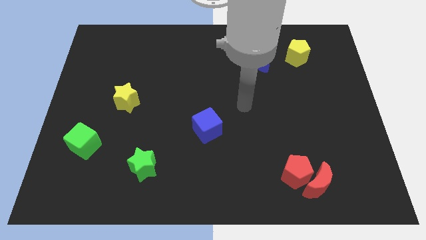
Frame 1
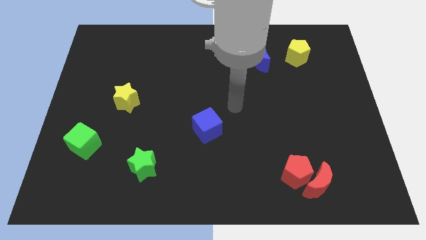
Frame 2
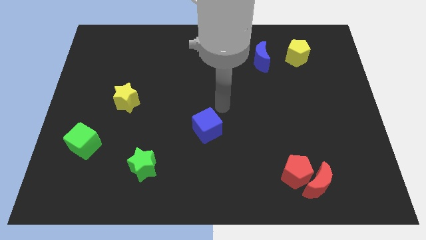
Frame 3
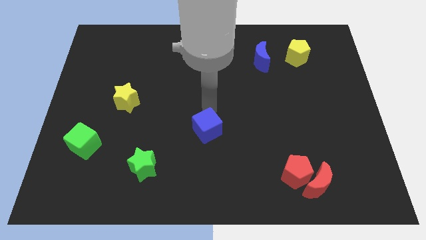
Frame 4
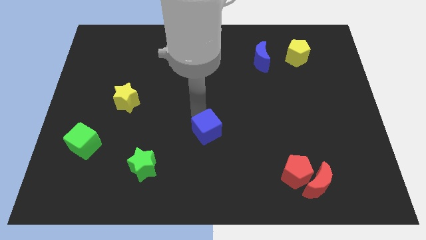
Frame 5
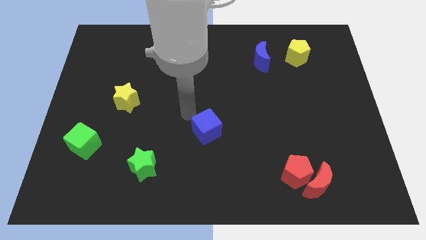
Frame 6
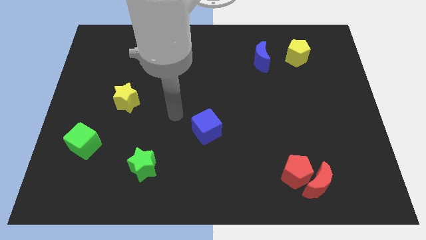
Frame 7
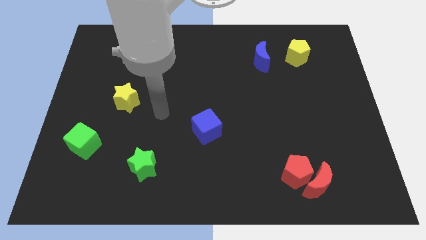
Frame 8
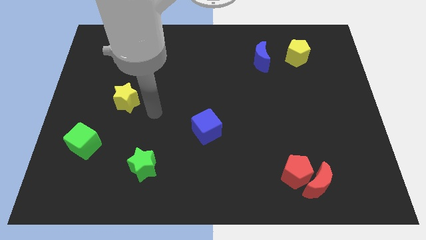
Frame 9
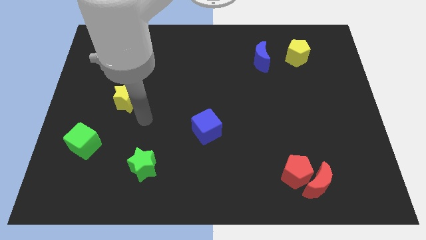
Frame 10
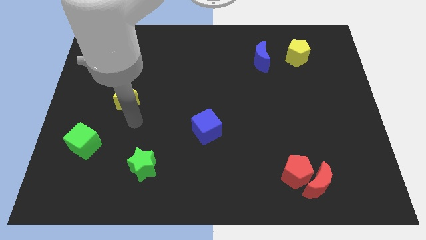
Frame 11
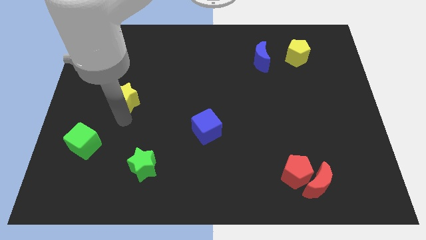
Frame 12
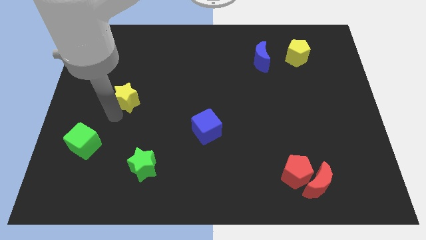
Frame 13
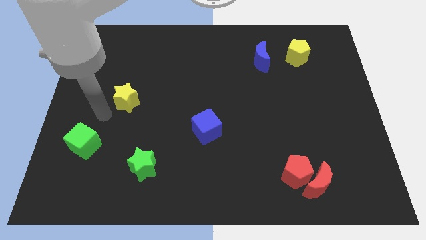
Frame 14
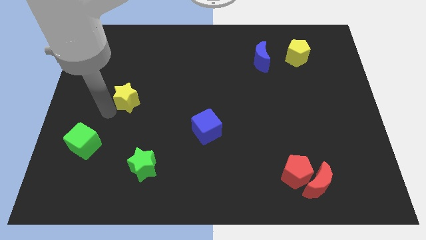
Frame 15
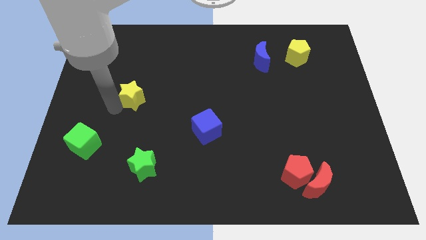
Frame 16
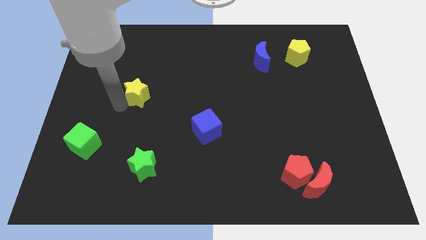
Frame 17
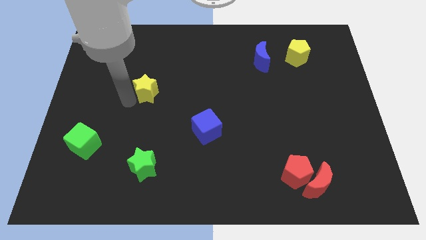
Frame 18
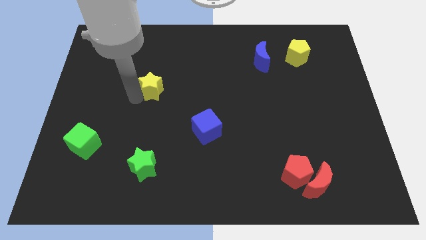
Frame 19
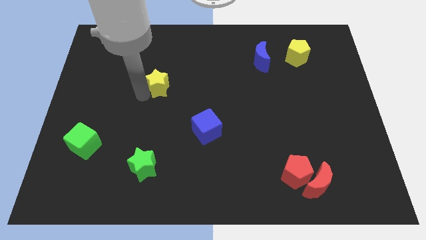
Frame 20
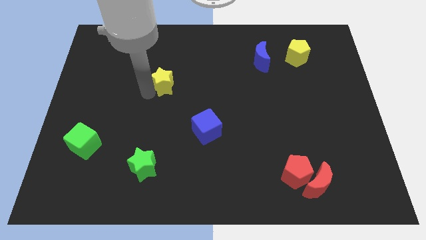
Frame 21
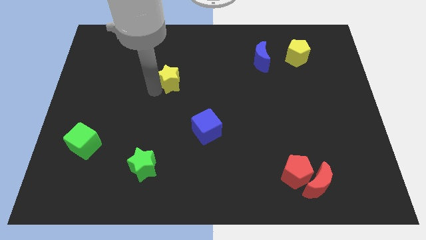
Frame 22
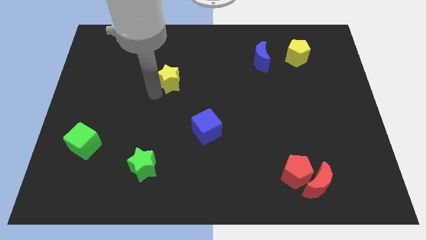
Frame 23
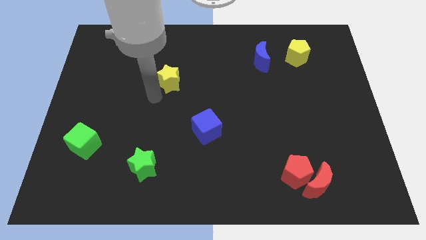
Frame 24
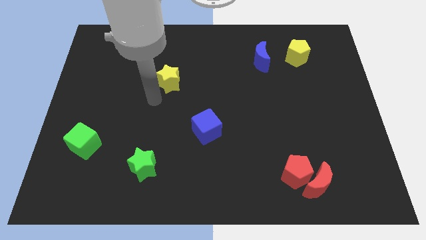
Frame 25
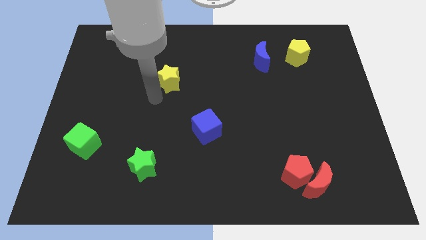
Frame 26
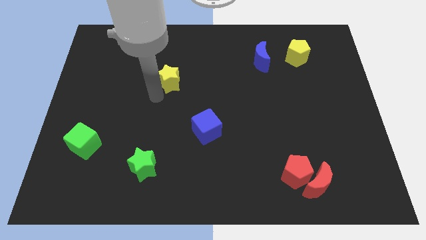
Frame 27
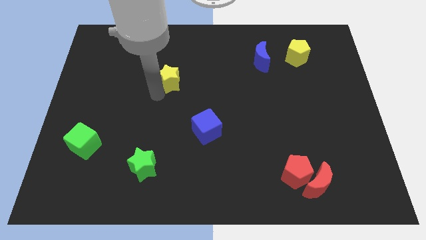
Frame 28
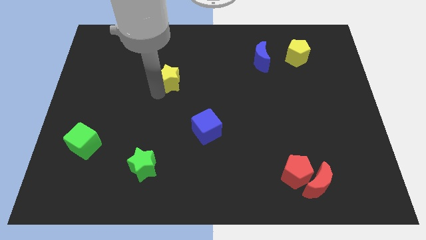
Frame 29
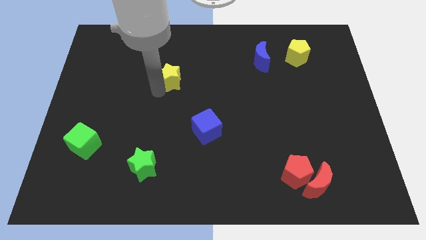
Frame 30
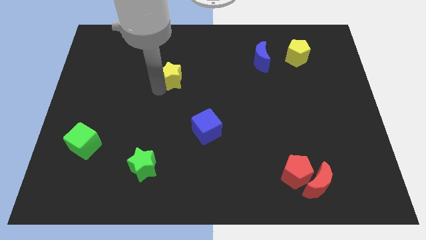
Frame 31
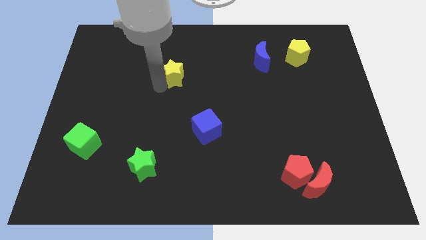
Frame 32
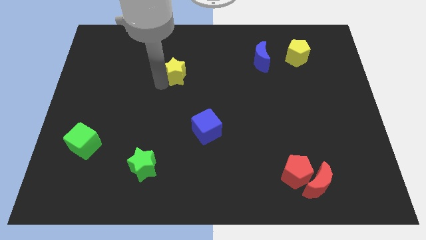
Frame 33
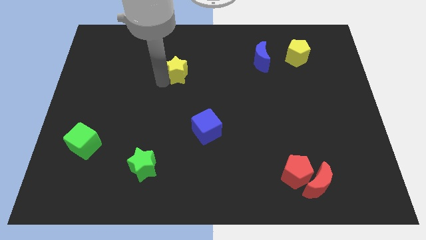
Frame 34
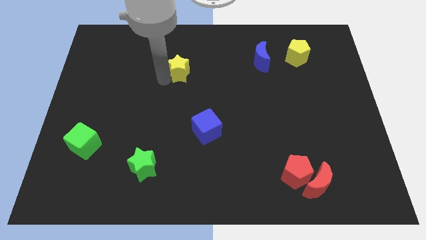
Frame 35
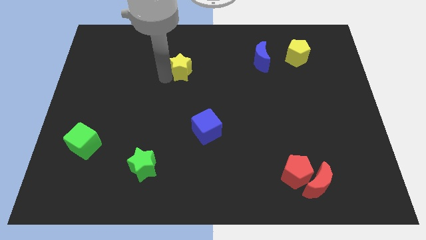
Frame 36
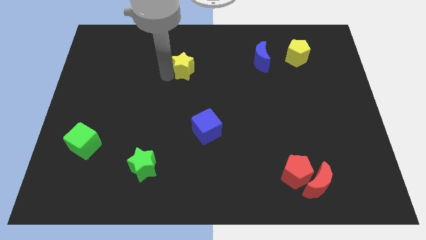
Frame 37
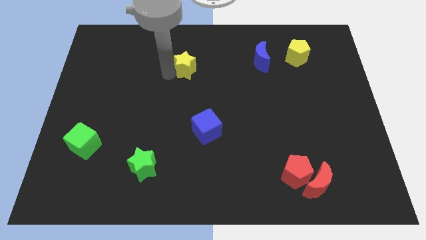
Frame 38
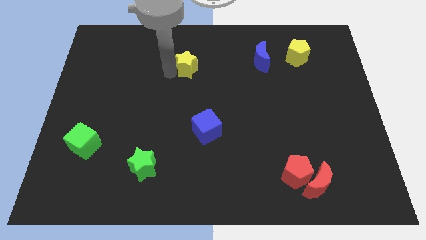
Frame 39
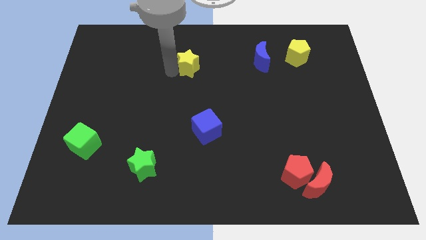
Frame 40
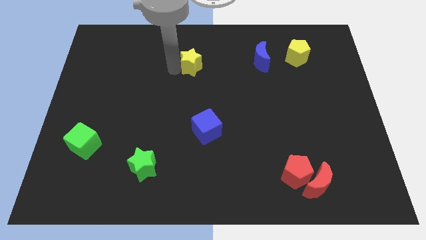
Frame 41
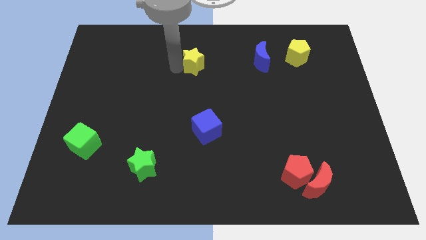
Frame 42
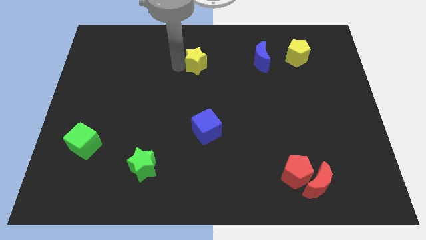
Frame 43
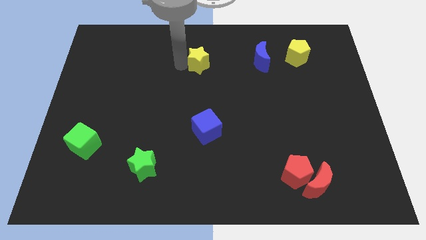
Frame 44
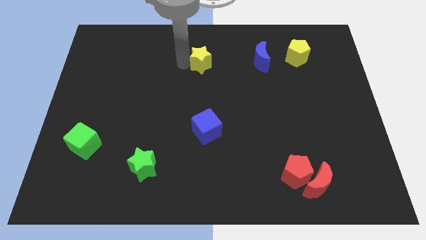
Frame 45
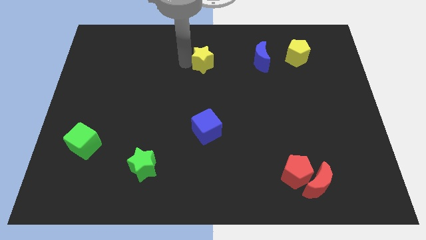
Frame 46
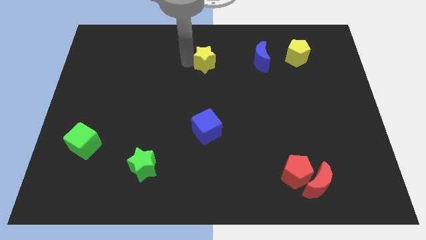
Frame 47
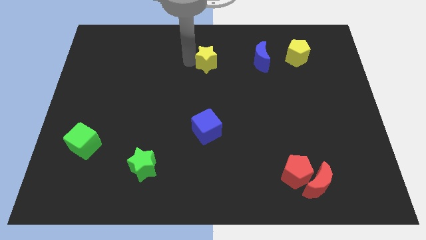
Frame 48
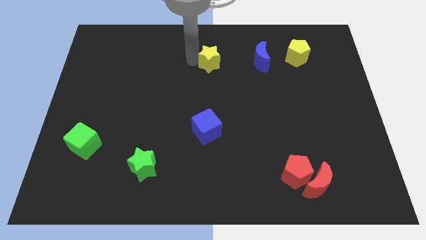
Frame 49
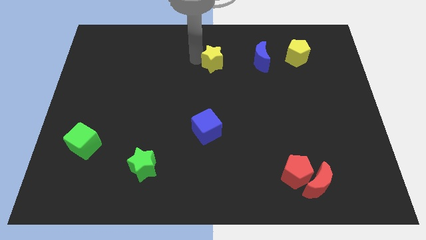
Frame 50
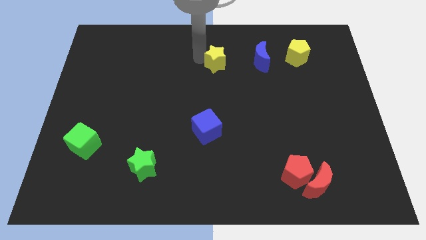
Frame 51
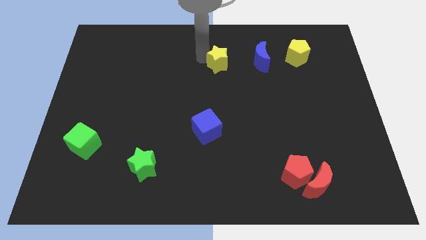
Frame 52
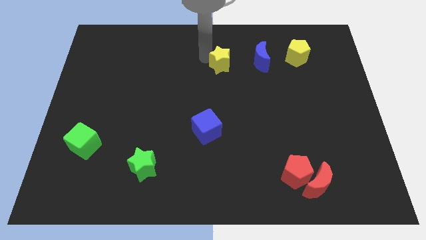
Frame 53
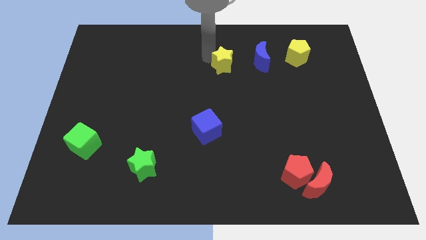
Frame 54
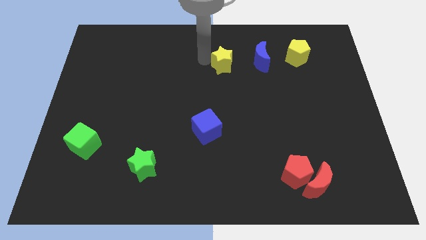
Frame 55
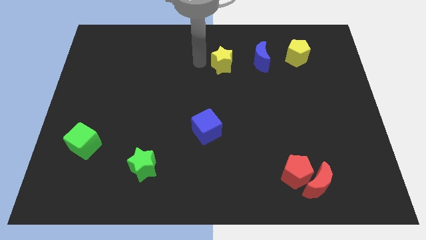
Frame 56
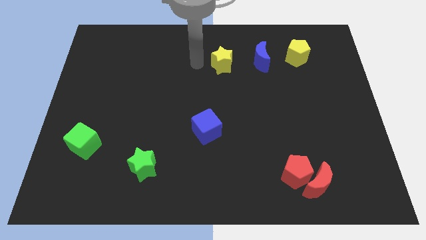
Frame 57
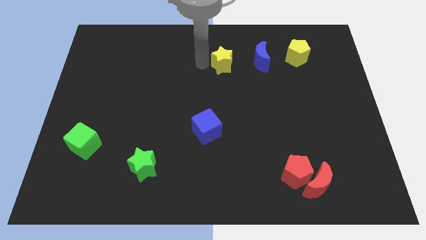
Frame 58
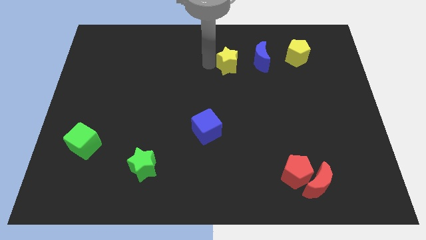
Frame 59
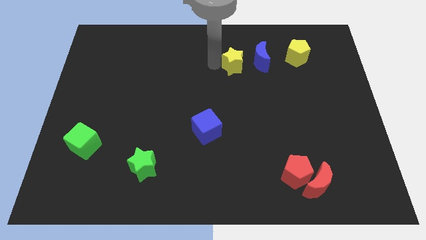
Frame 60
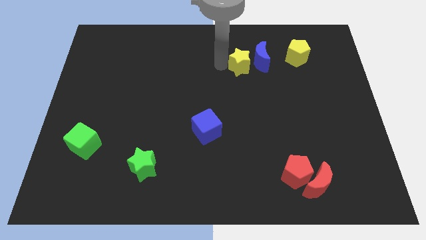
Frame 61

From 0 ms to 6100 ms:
put the yellow star next to the blue moon

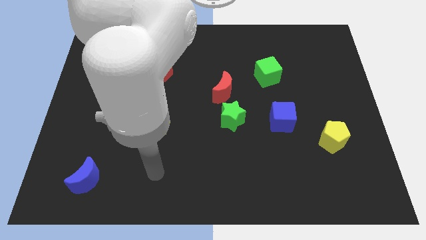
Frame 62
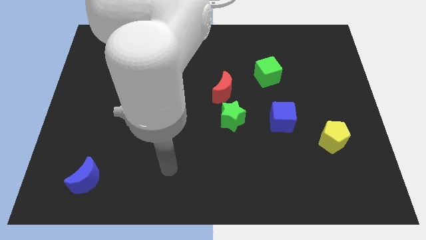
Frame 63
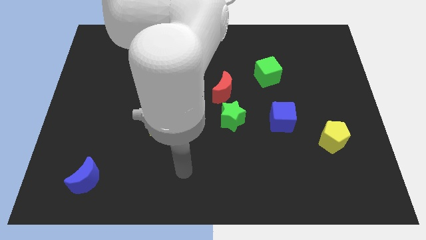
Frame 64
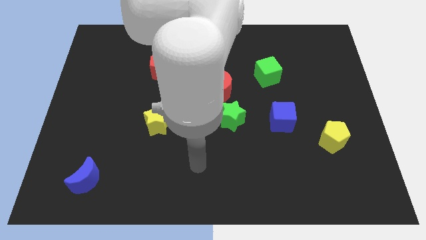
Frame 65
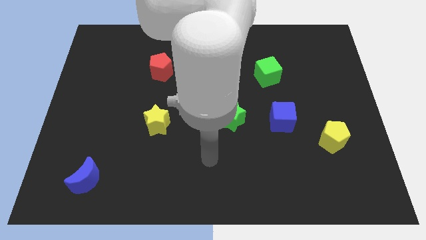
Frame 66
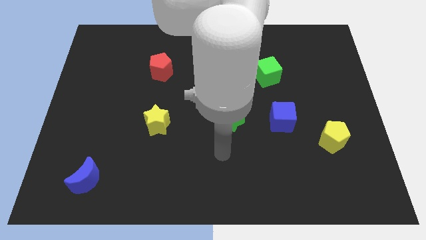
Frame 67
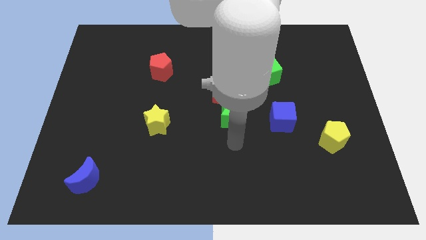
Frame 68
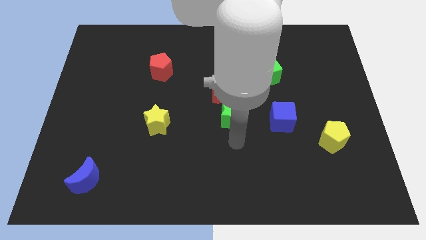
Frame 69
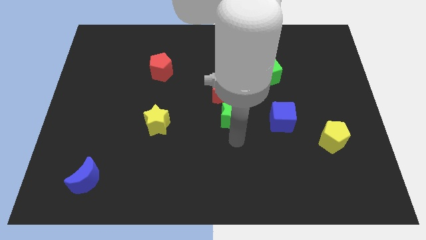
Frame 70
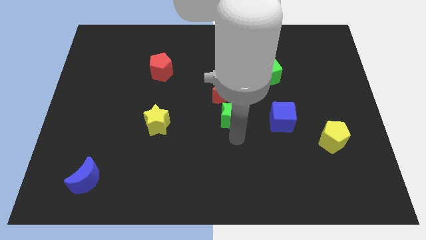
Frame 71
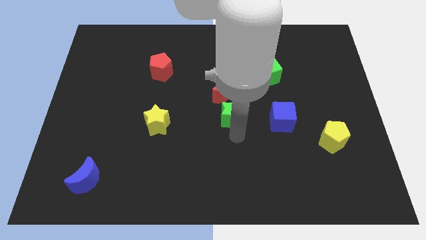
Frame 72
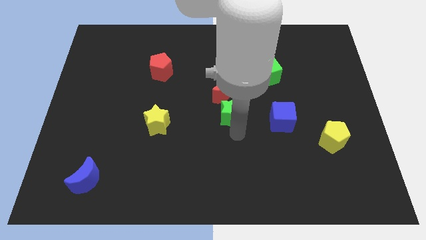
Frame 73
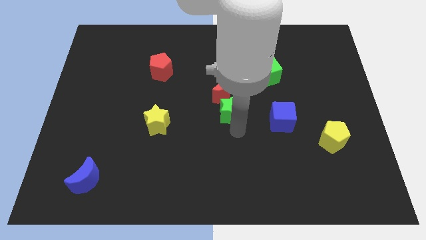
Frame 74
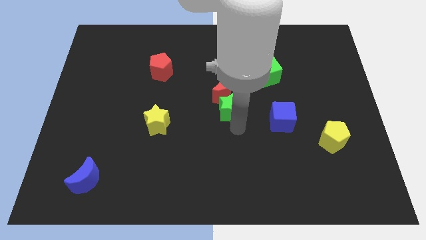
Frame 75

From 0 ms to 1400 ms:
slide the green star to the red moon
